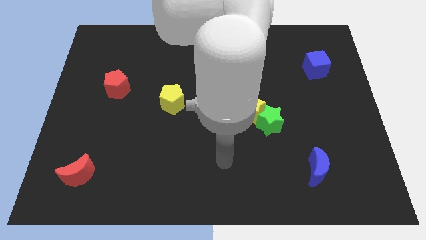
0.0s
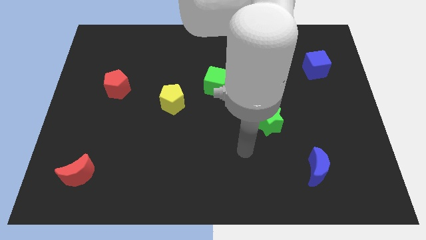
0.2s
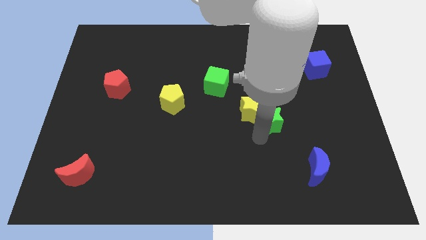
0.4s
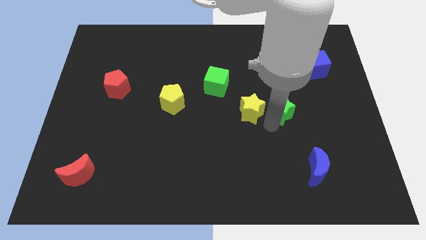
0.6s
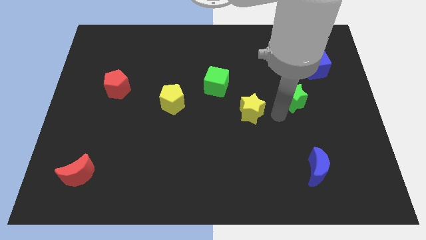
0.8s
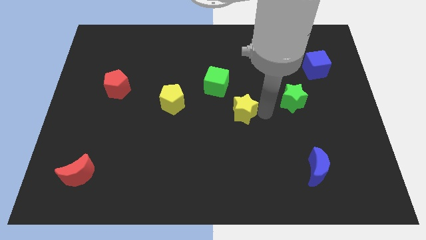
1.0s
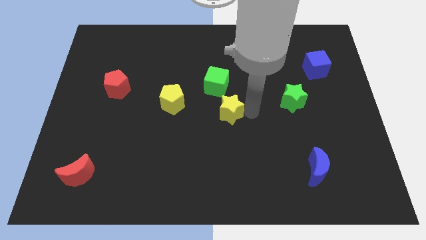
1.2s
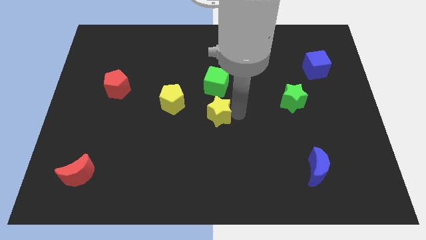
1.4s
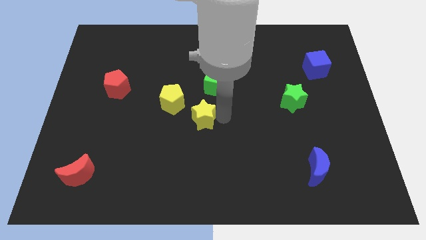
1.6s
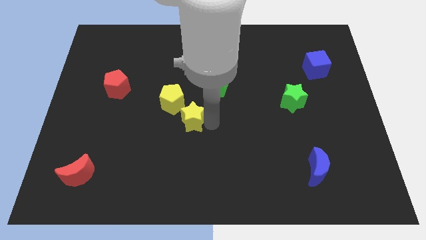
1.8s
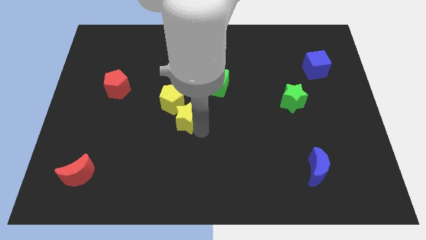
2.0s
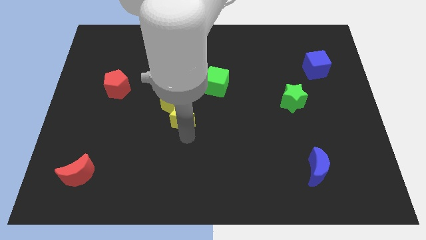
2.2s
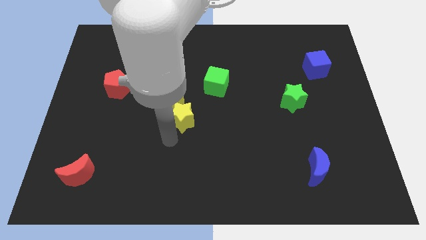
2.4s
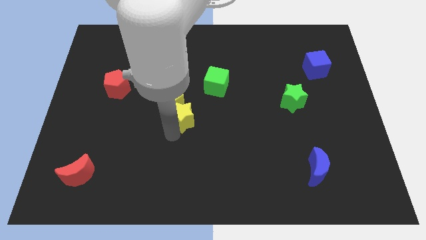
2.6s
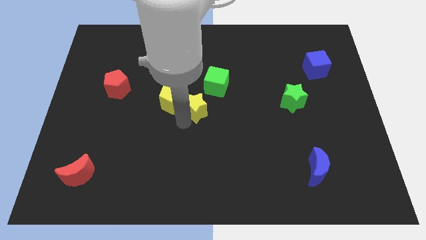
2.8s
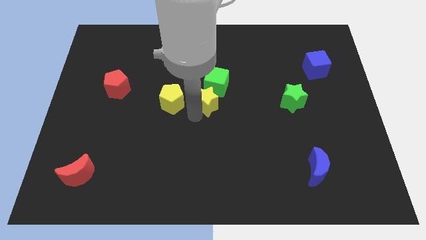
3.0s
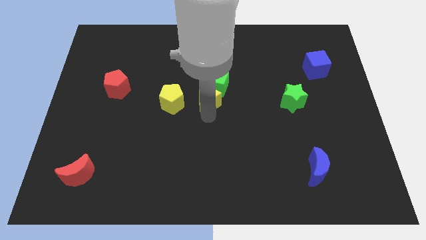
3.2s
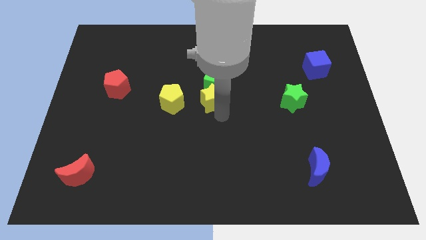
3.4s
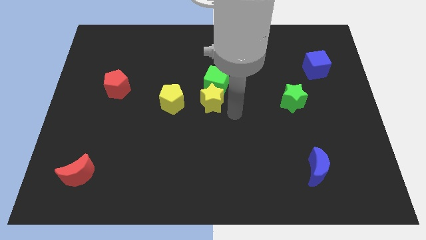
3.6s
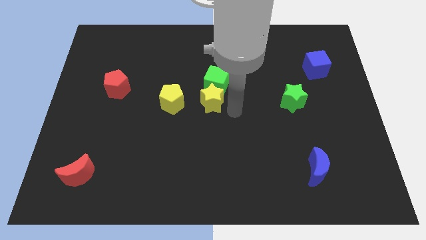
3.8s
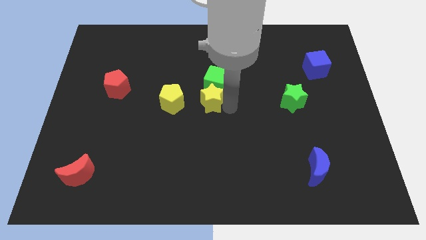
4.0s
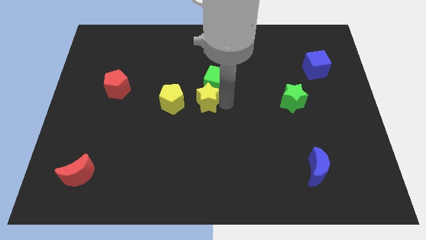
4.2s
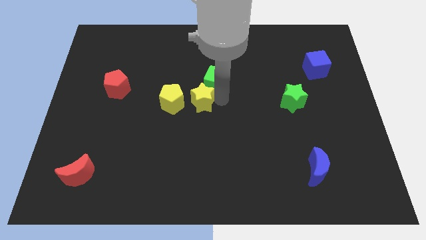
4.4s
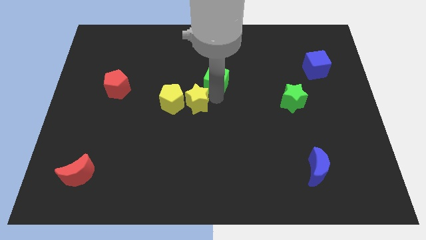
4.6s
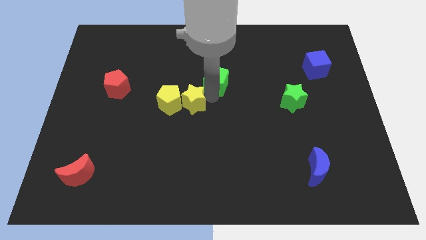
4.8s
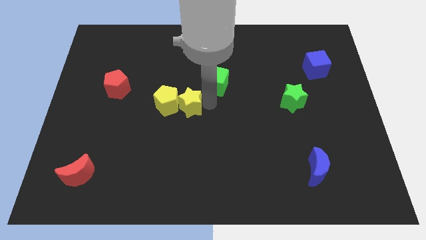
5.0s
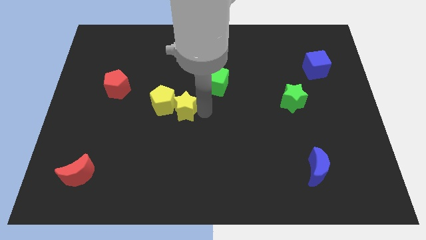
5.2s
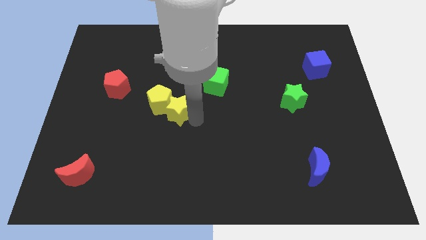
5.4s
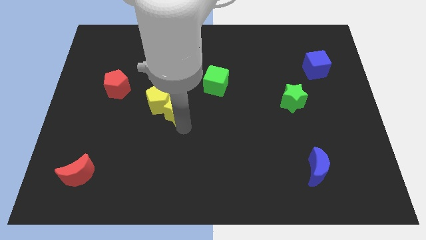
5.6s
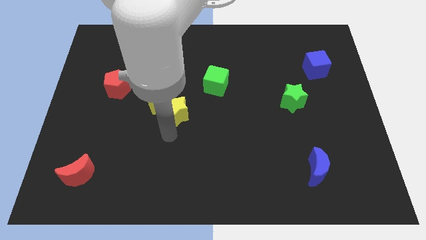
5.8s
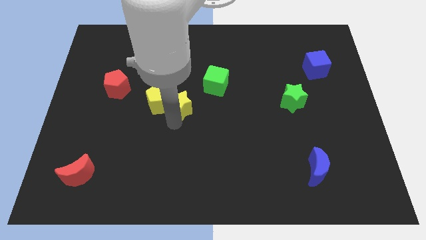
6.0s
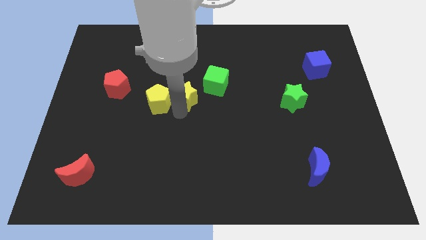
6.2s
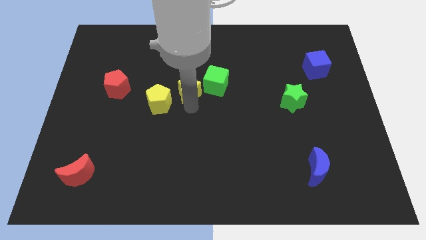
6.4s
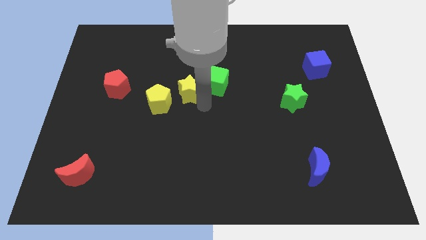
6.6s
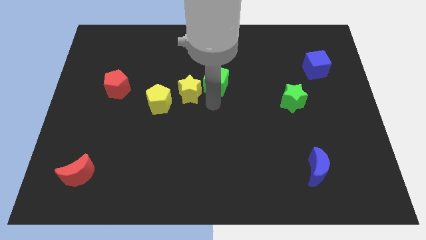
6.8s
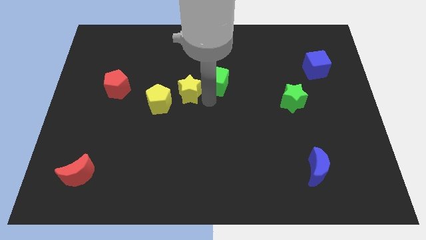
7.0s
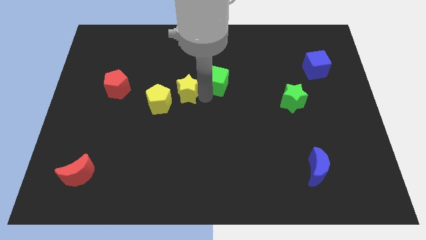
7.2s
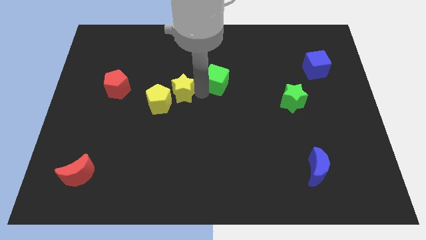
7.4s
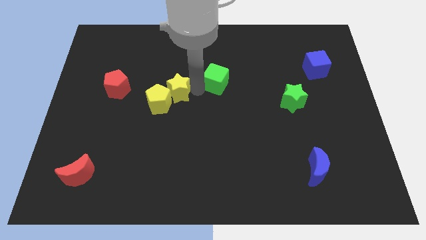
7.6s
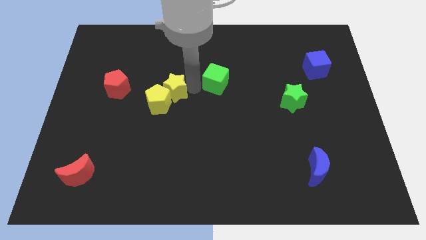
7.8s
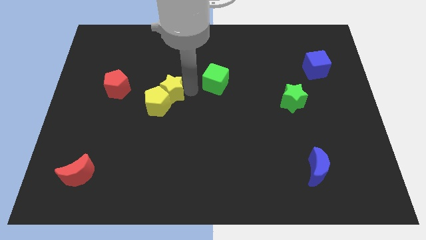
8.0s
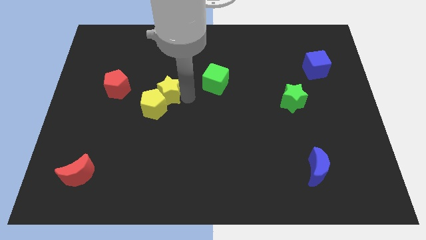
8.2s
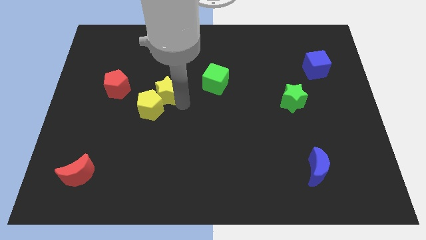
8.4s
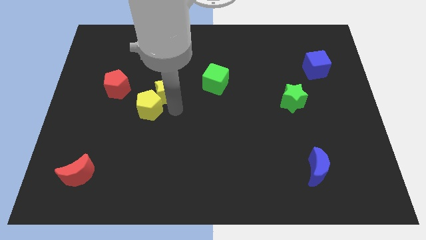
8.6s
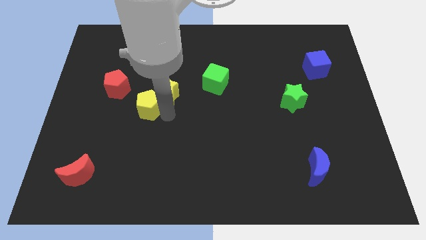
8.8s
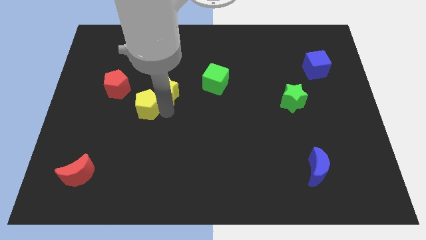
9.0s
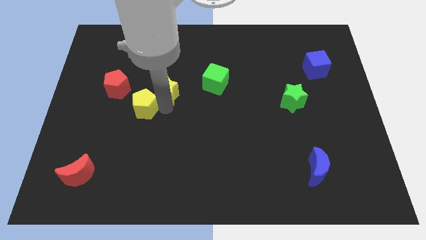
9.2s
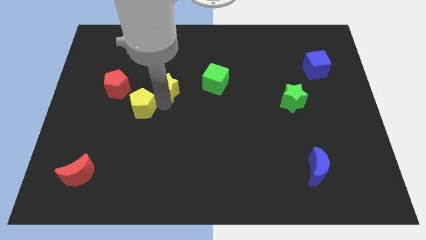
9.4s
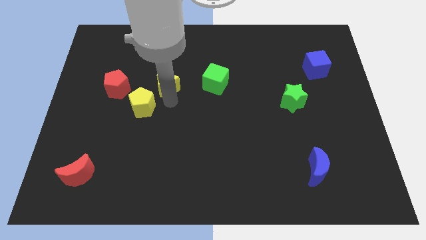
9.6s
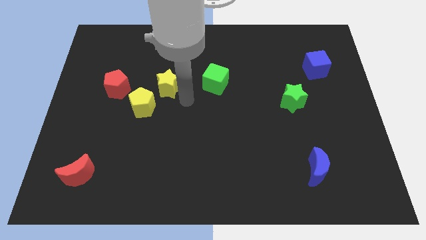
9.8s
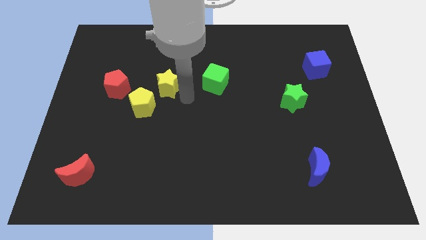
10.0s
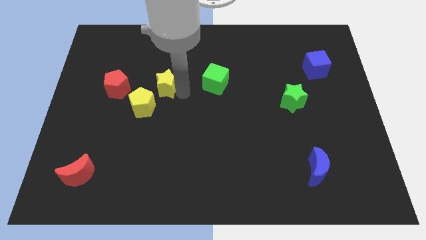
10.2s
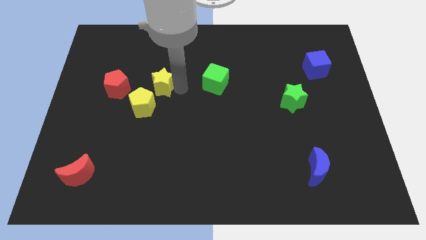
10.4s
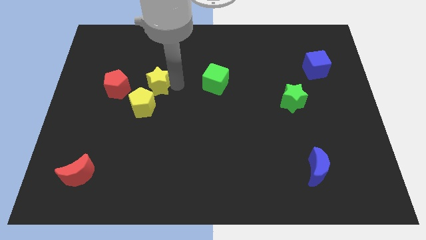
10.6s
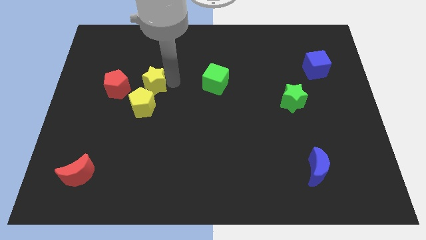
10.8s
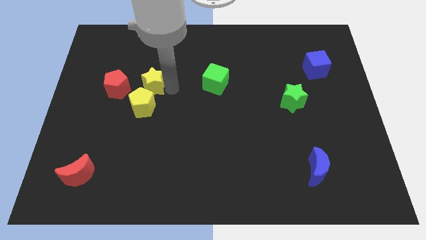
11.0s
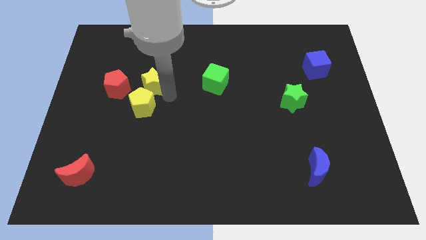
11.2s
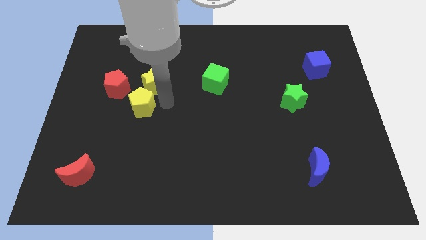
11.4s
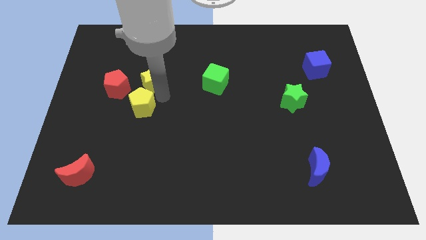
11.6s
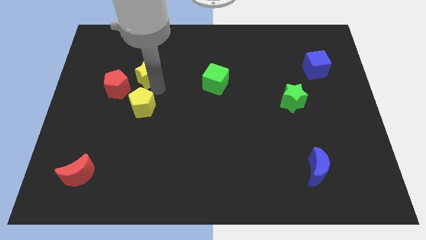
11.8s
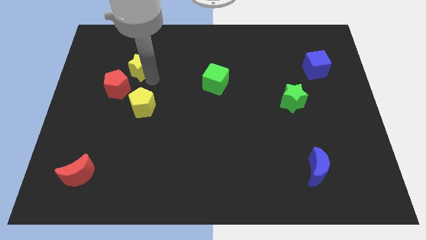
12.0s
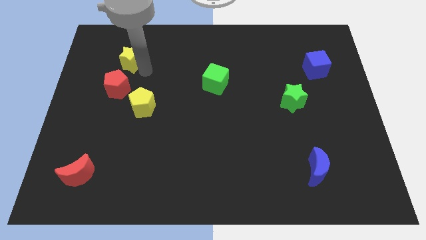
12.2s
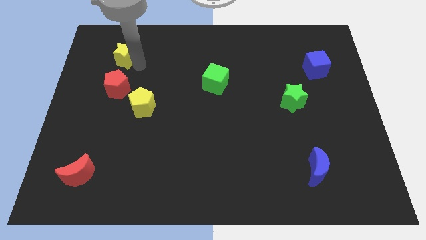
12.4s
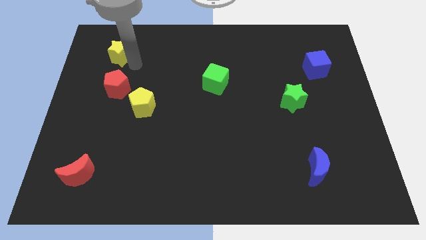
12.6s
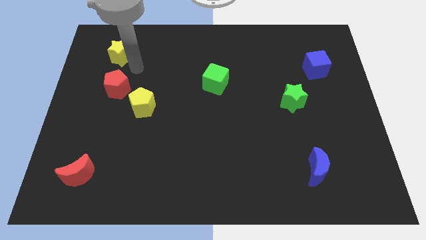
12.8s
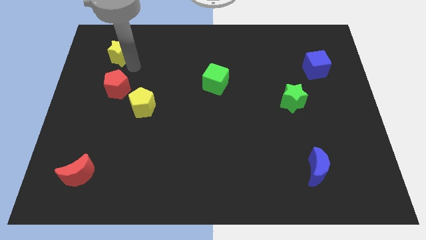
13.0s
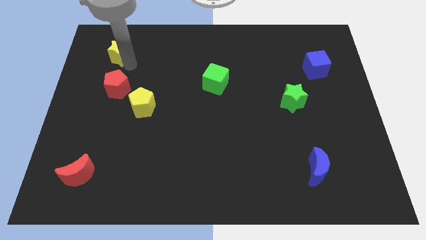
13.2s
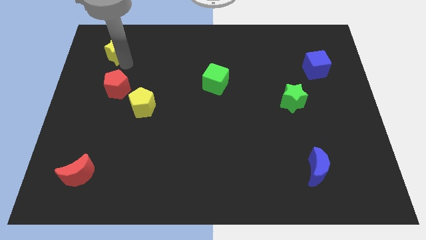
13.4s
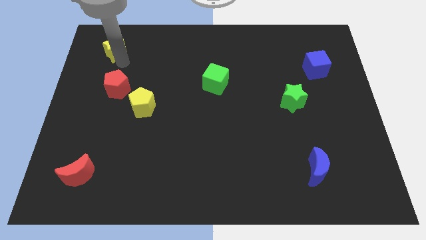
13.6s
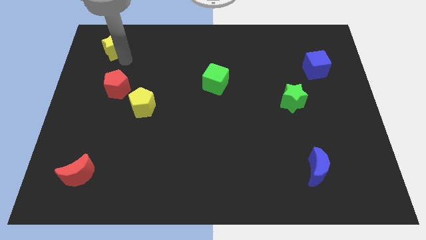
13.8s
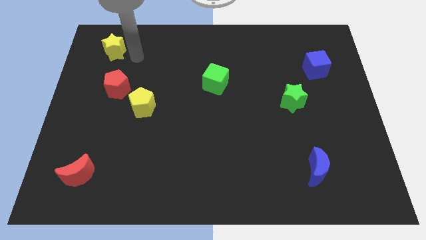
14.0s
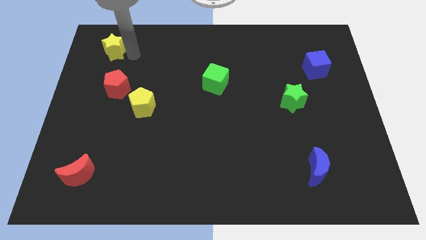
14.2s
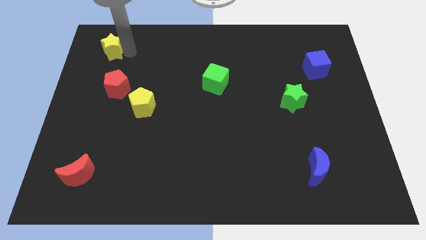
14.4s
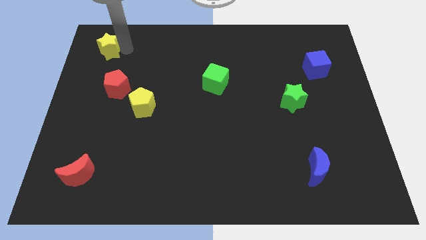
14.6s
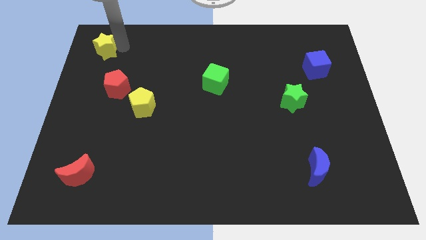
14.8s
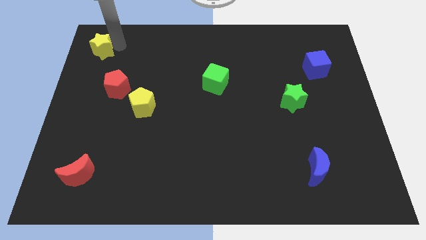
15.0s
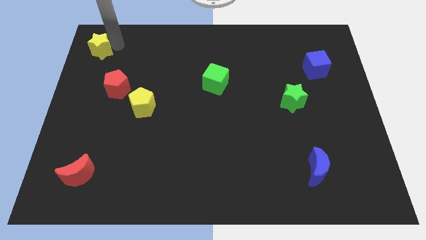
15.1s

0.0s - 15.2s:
slide the yellow star to the top left
